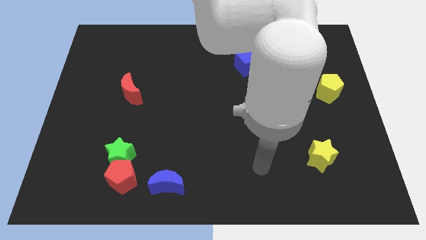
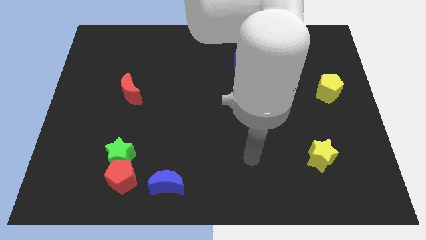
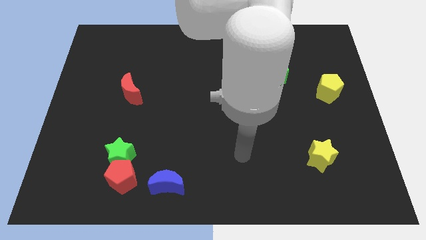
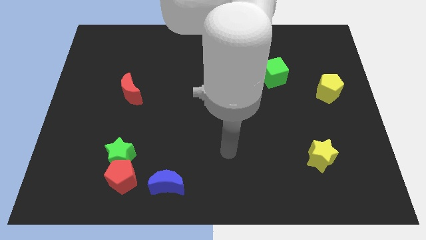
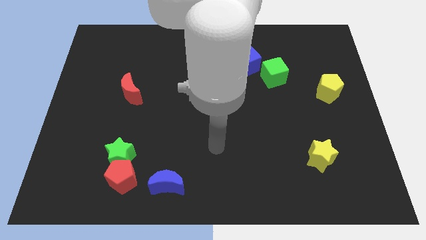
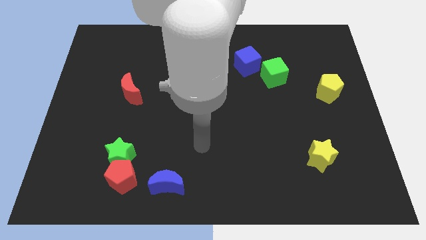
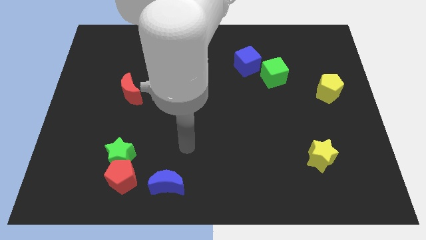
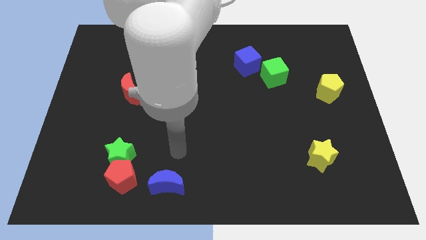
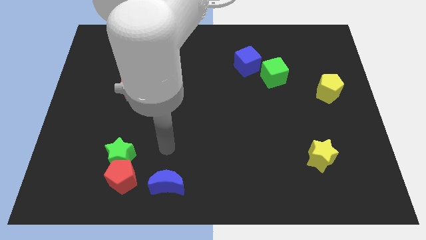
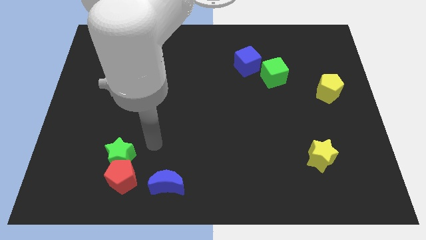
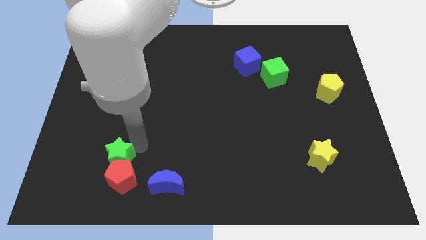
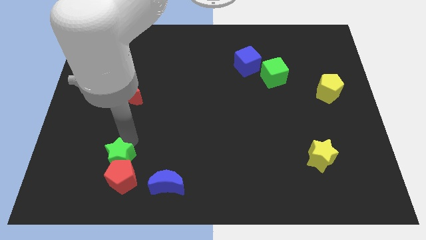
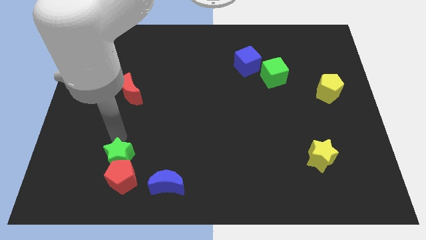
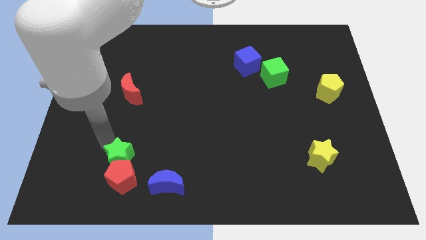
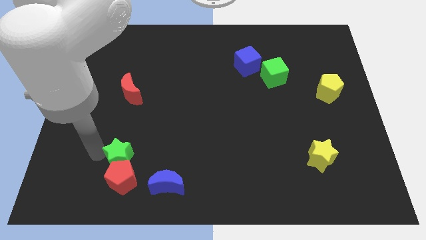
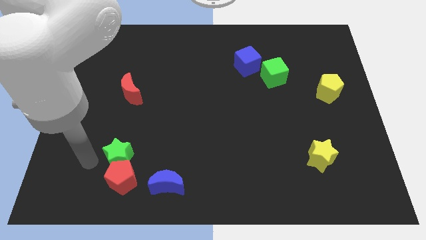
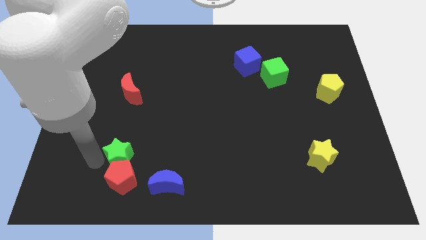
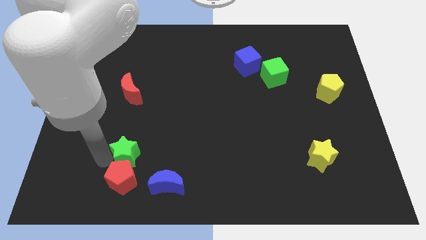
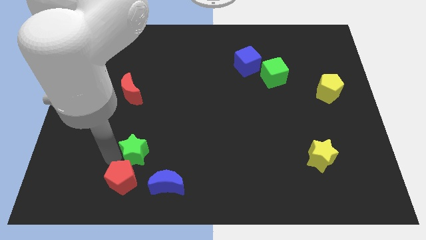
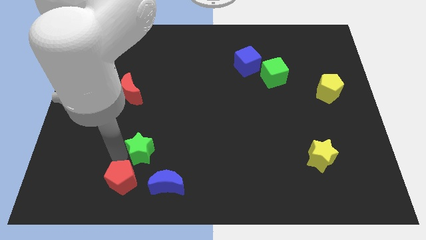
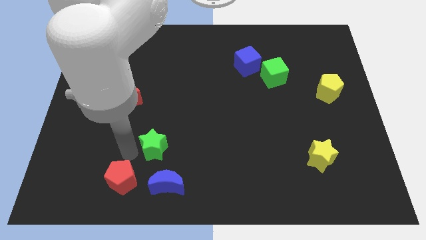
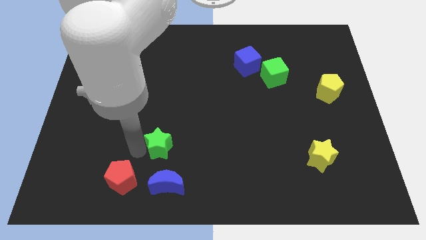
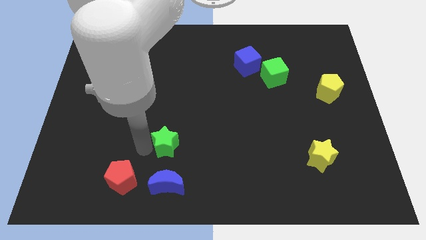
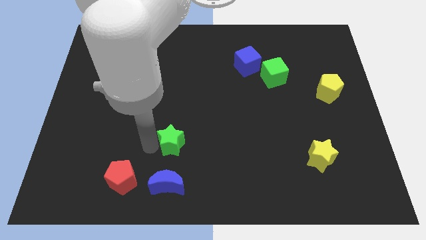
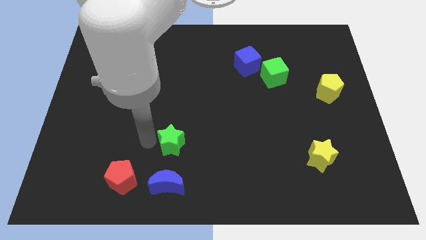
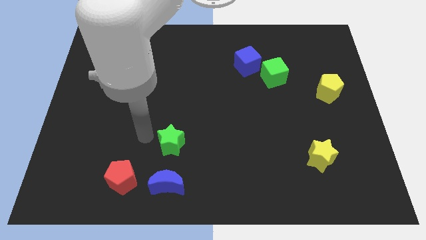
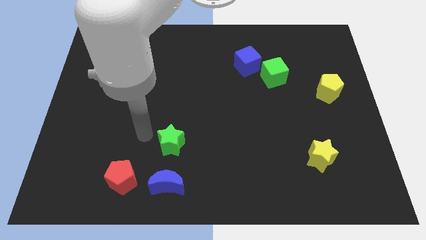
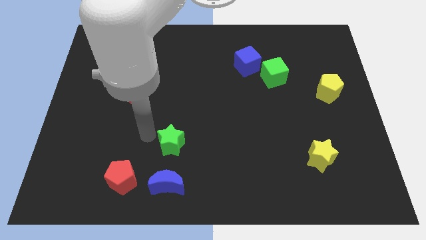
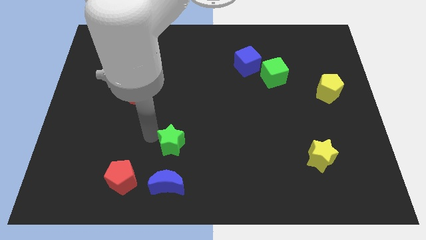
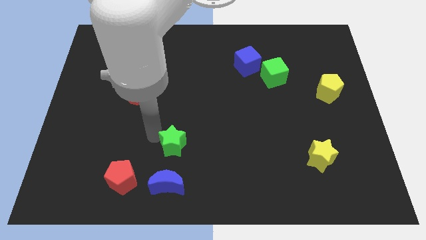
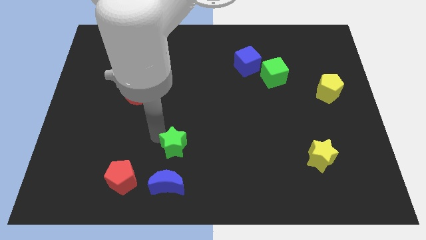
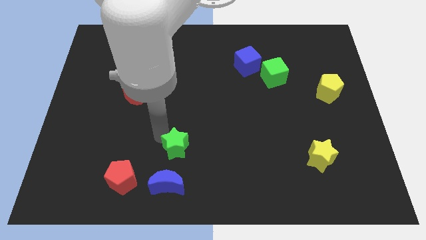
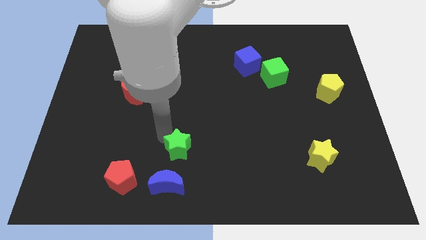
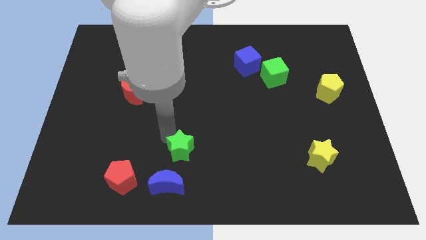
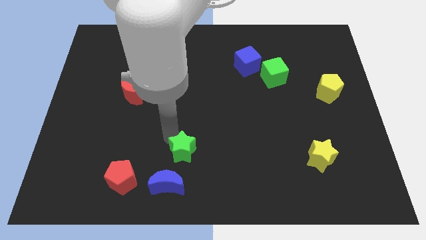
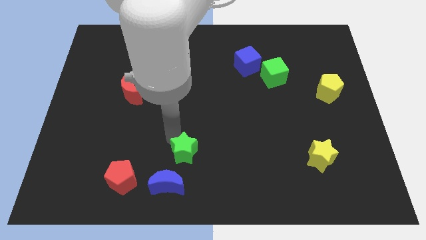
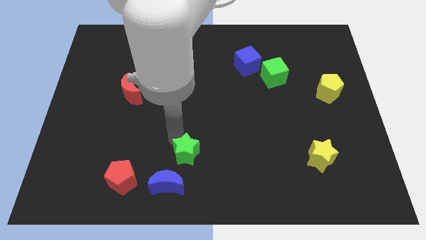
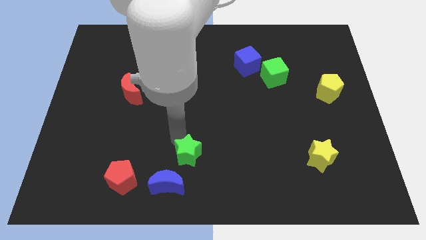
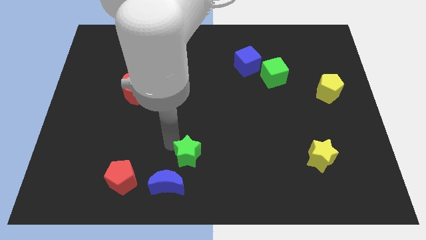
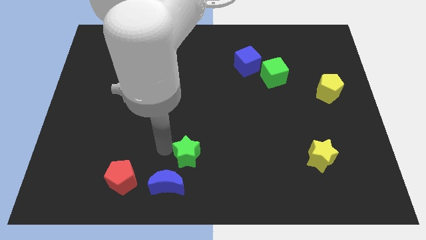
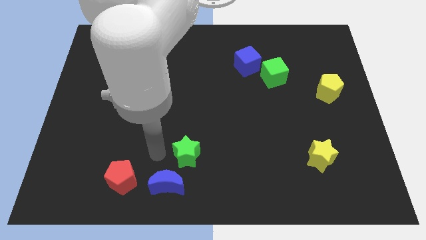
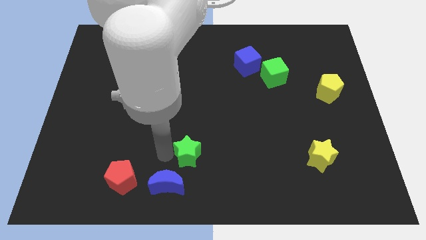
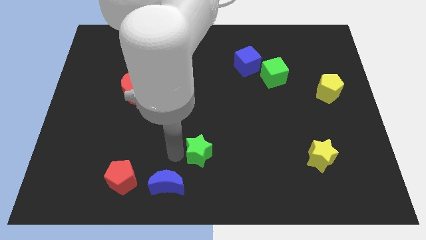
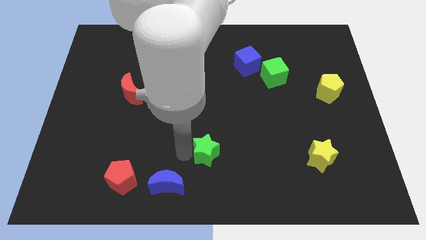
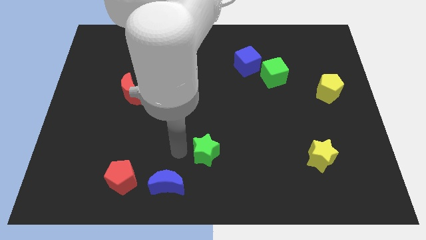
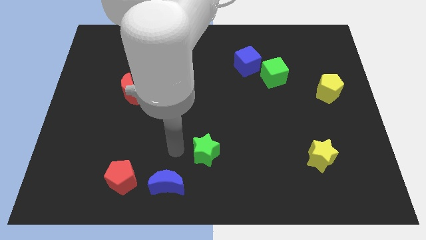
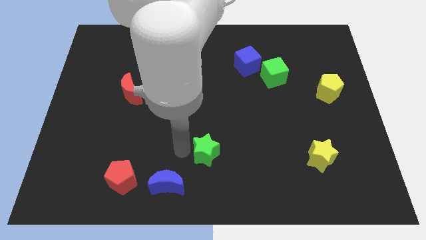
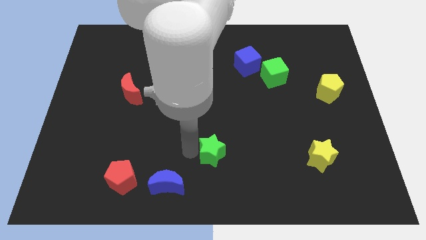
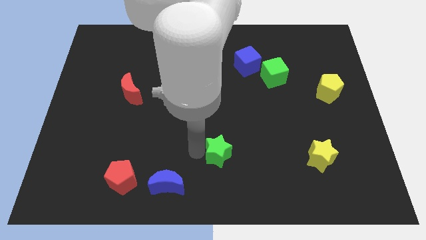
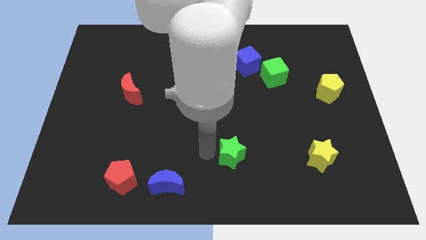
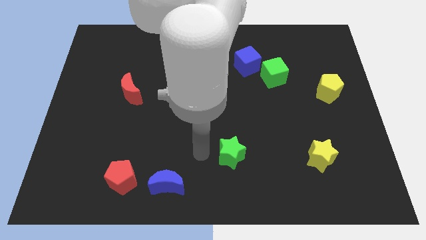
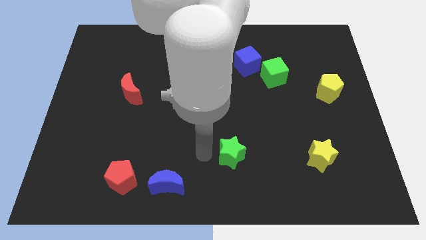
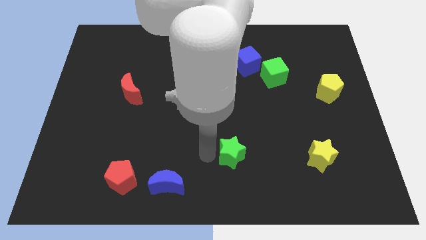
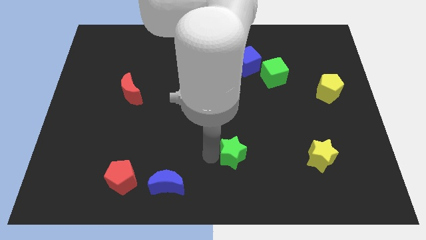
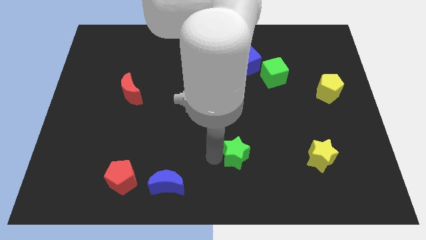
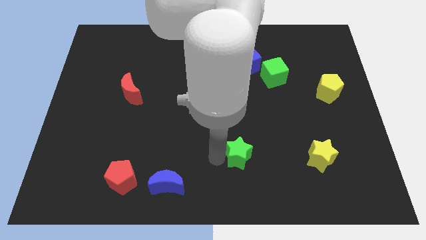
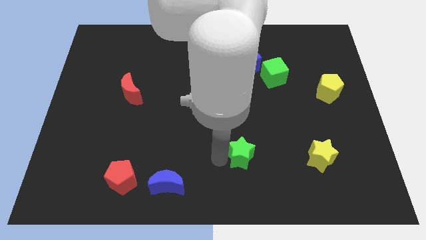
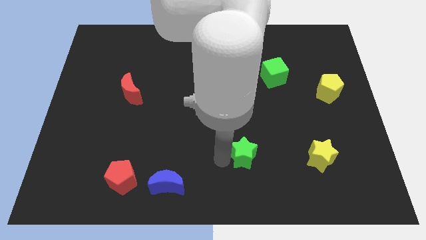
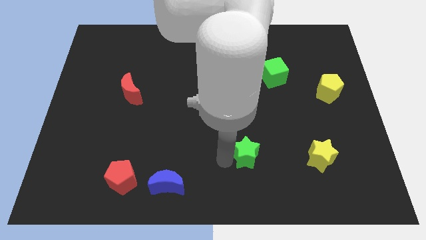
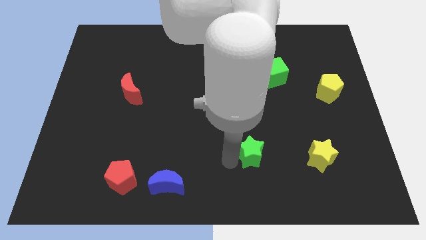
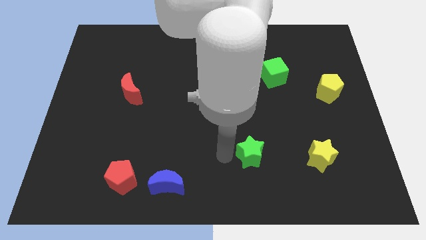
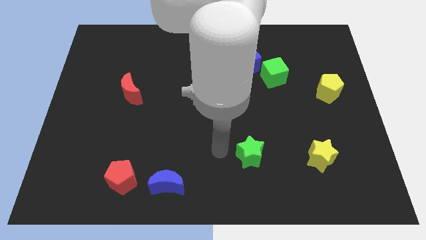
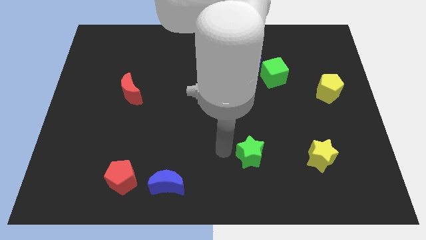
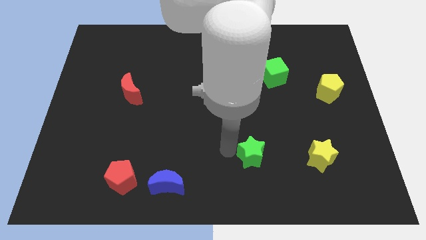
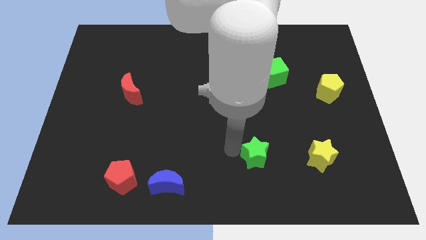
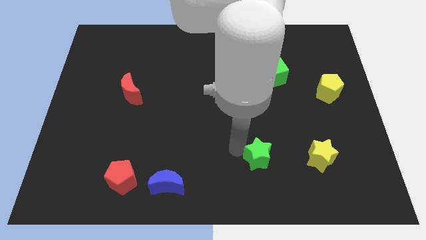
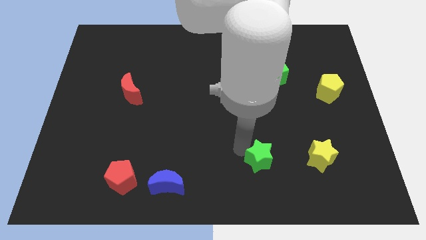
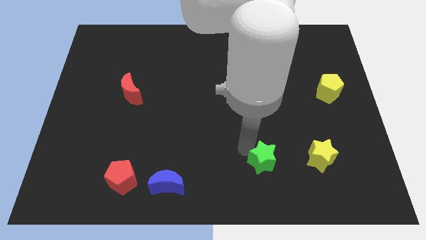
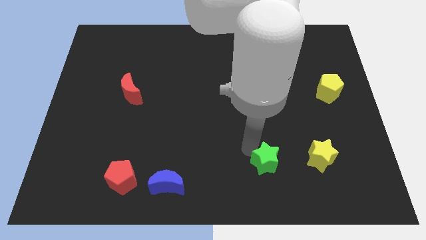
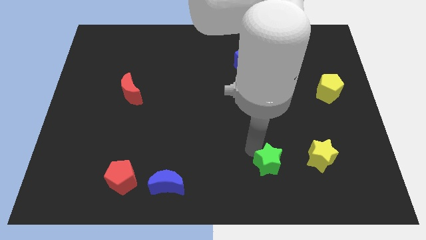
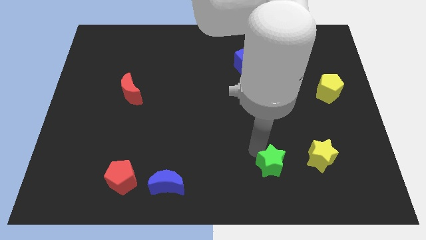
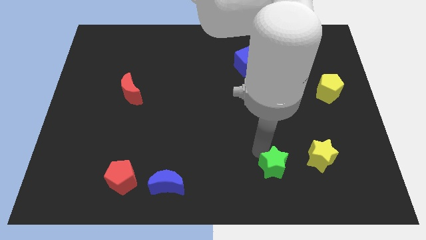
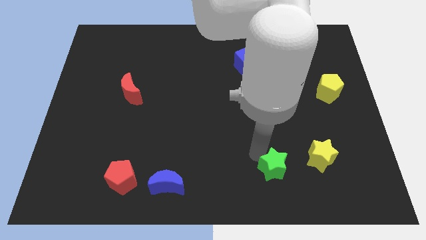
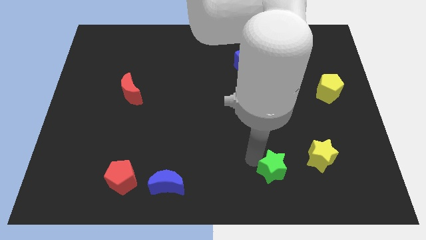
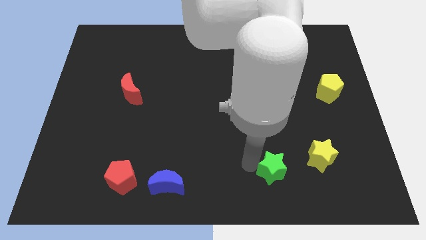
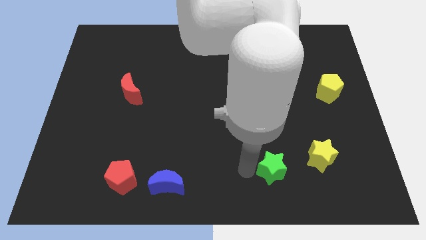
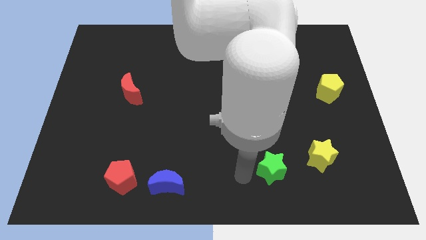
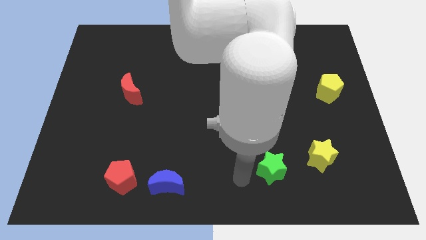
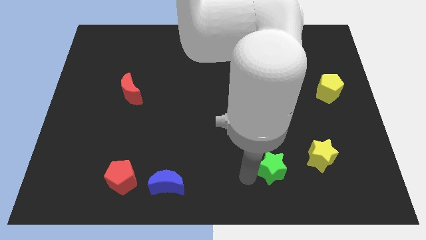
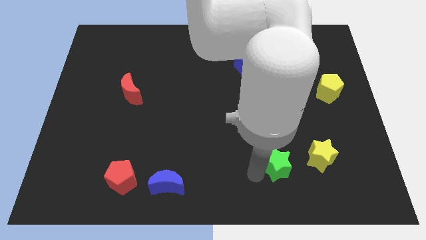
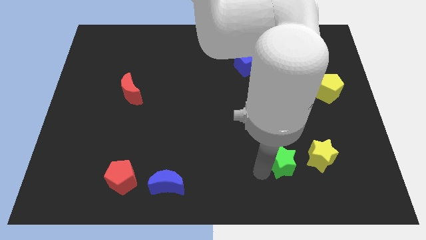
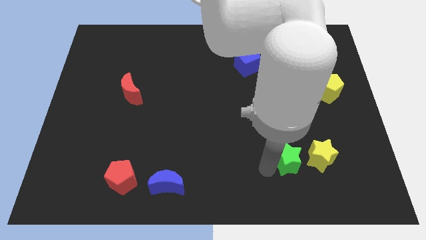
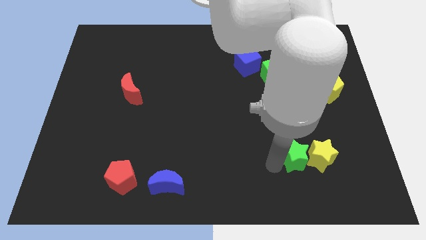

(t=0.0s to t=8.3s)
put the green star towards the yellow star
